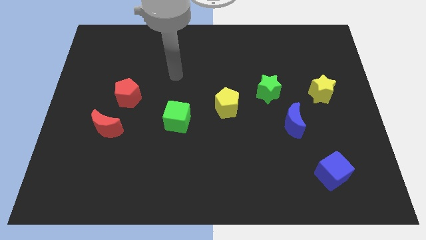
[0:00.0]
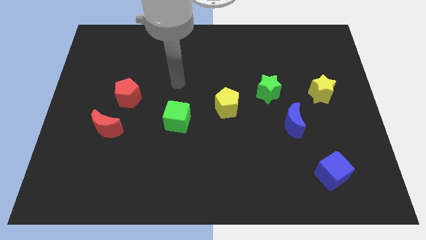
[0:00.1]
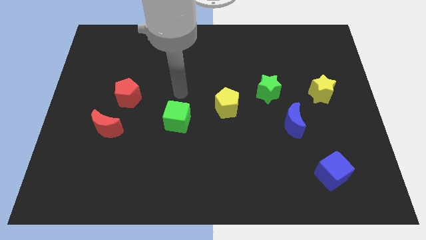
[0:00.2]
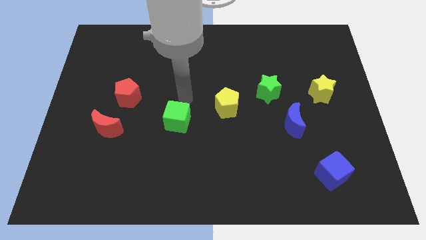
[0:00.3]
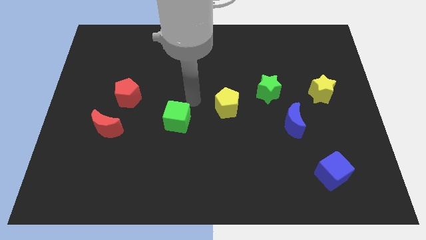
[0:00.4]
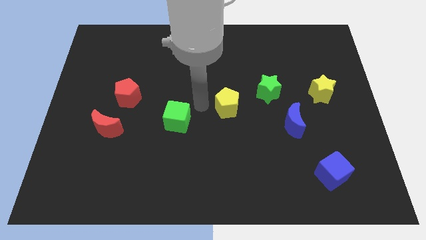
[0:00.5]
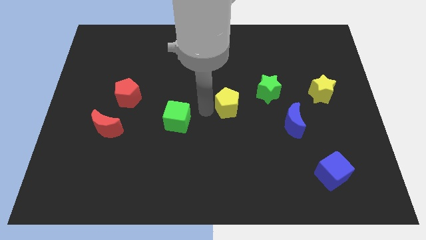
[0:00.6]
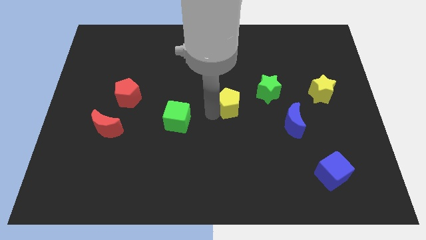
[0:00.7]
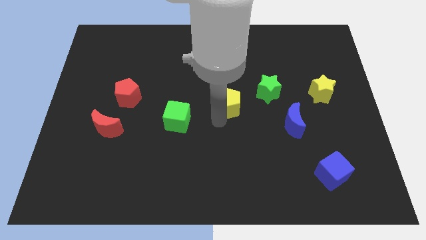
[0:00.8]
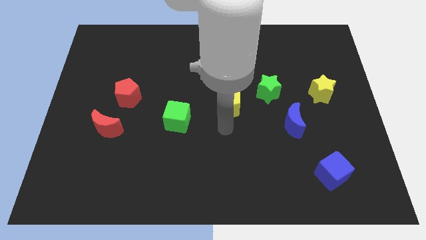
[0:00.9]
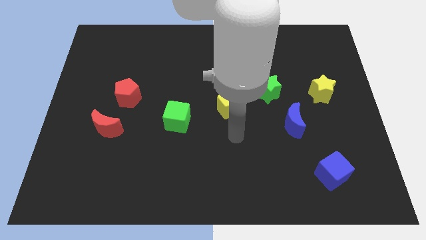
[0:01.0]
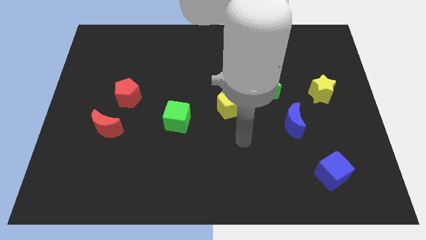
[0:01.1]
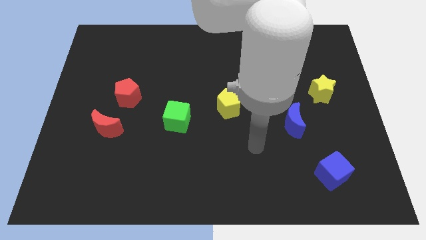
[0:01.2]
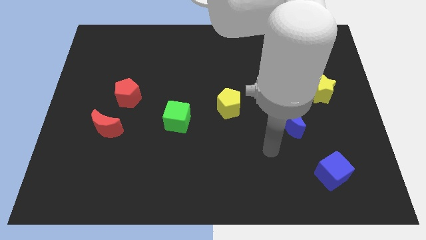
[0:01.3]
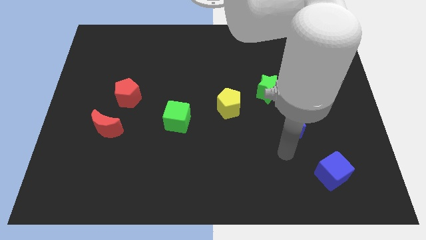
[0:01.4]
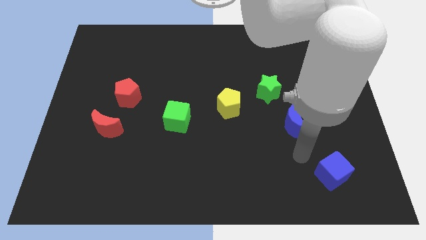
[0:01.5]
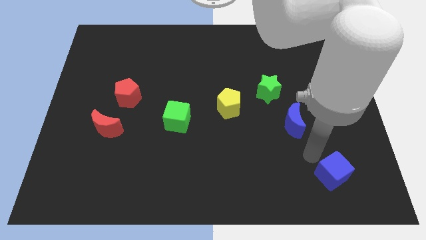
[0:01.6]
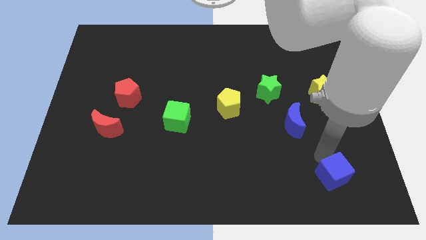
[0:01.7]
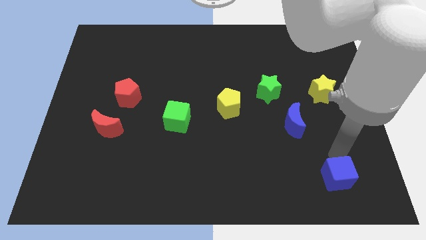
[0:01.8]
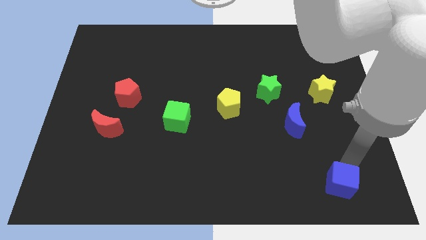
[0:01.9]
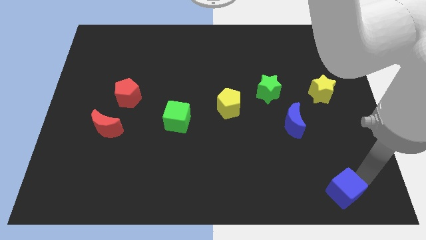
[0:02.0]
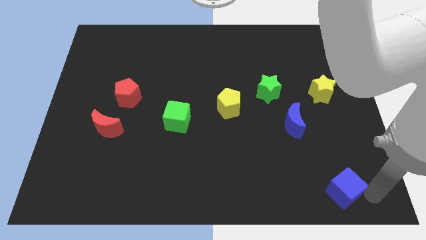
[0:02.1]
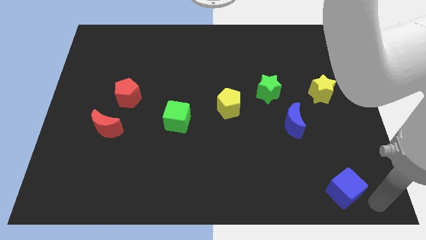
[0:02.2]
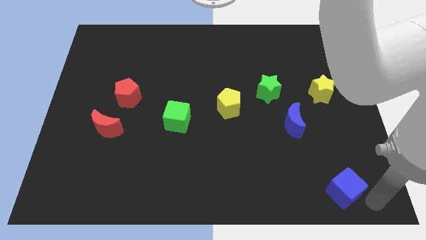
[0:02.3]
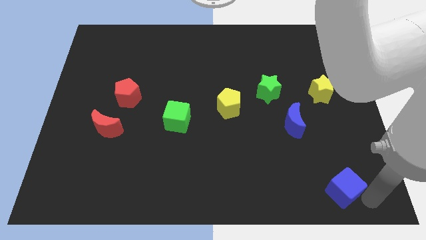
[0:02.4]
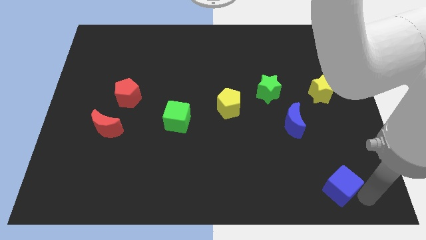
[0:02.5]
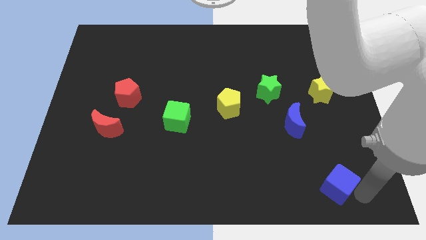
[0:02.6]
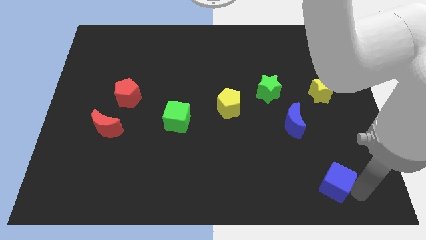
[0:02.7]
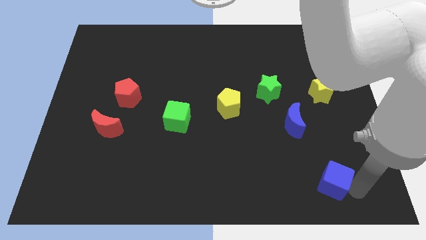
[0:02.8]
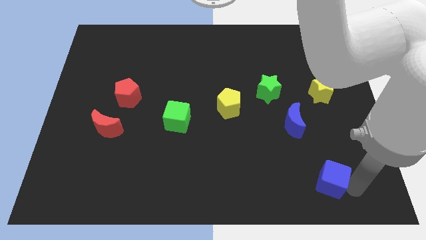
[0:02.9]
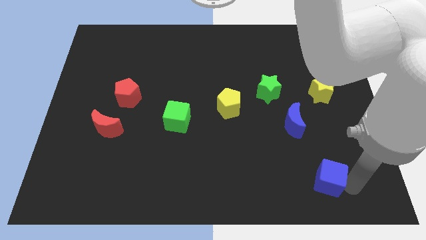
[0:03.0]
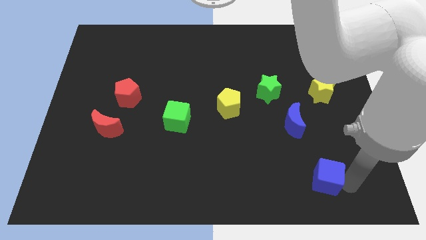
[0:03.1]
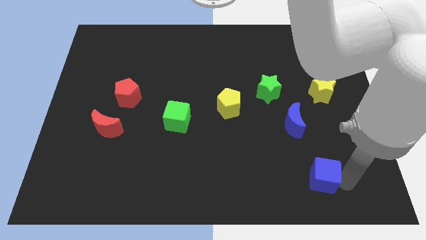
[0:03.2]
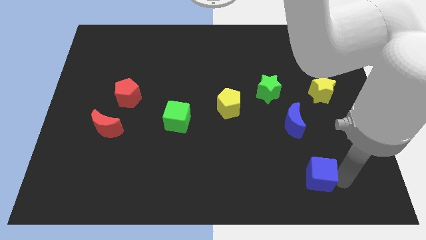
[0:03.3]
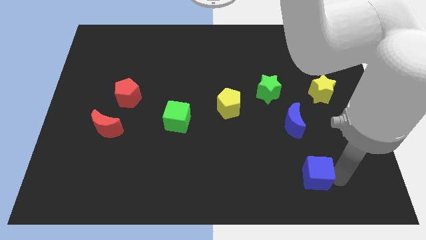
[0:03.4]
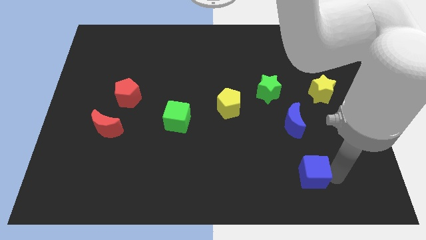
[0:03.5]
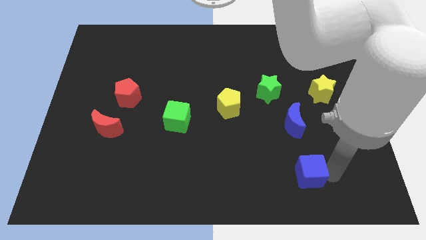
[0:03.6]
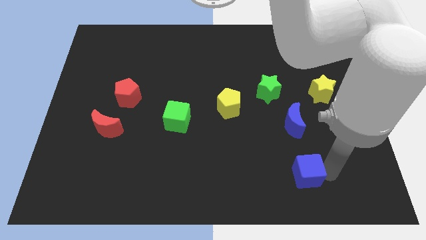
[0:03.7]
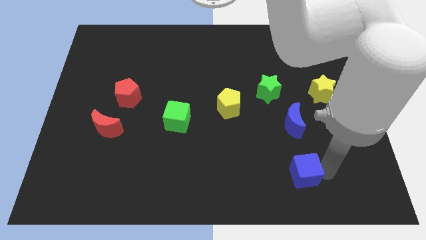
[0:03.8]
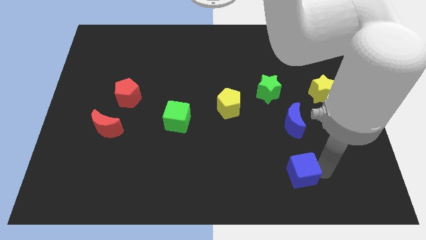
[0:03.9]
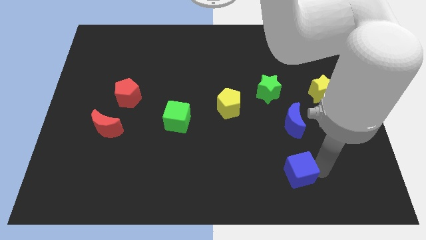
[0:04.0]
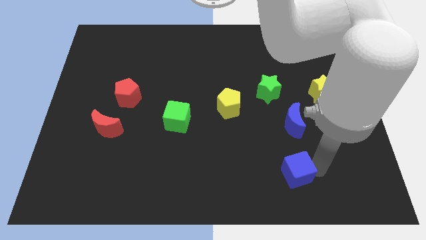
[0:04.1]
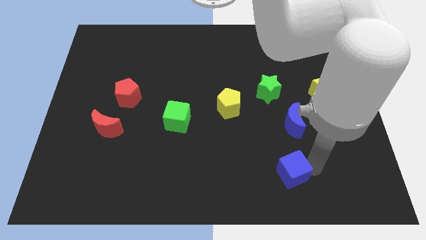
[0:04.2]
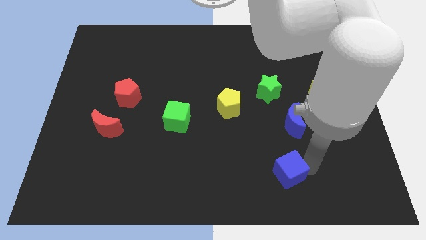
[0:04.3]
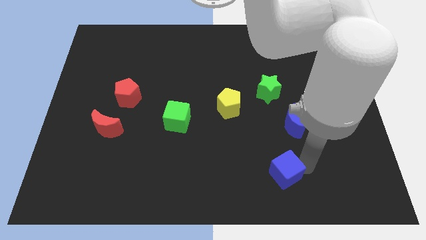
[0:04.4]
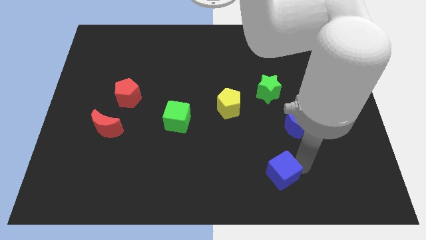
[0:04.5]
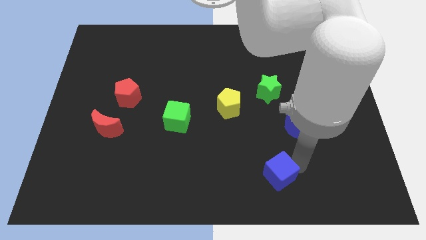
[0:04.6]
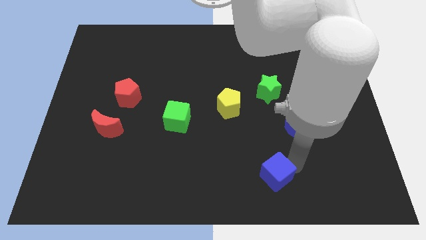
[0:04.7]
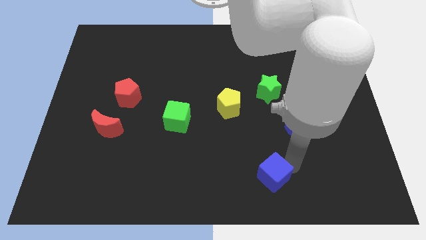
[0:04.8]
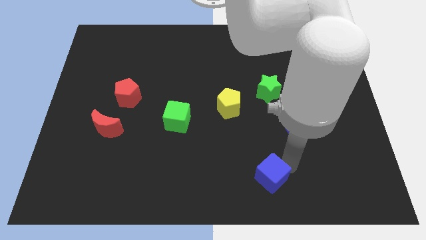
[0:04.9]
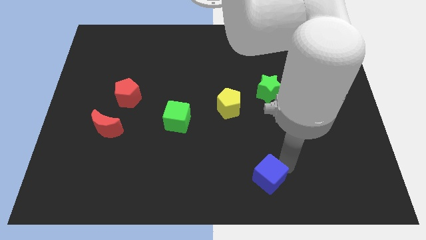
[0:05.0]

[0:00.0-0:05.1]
move the blue cube to the bottom side

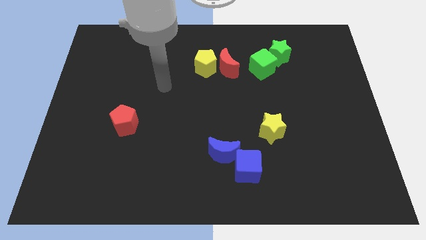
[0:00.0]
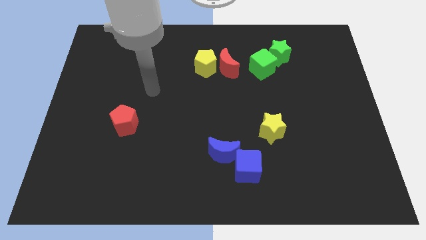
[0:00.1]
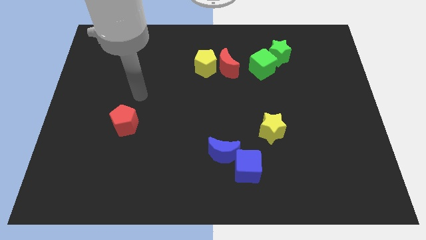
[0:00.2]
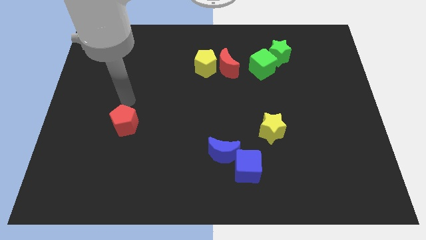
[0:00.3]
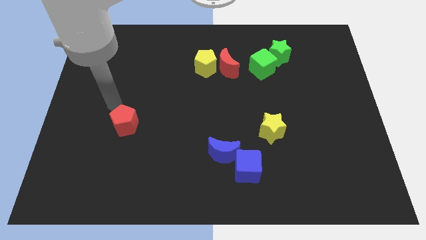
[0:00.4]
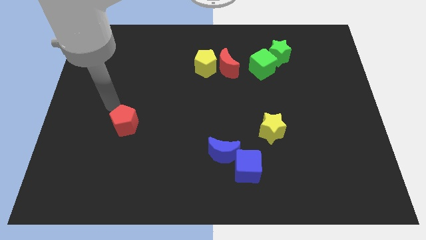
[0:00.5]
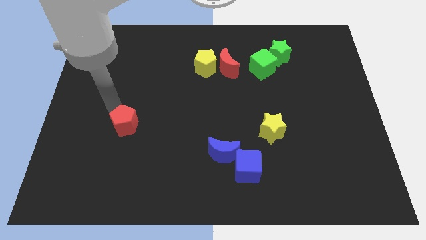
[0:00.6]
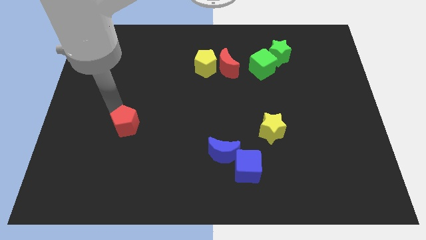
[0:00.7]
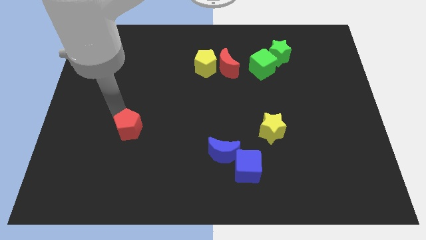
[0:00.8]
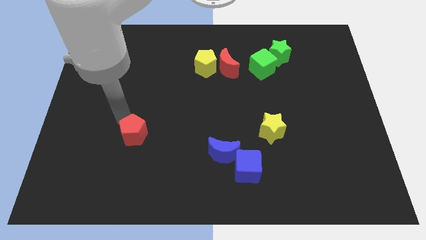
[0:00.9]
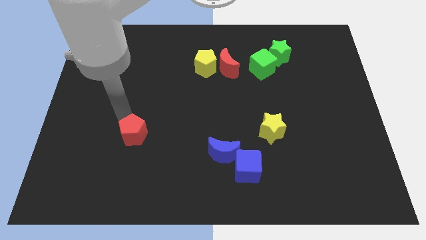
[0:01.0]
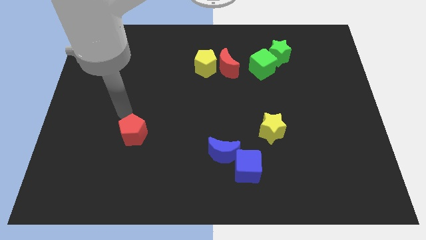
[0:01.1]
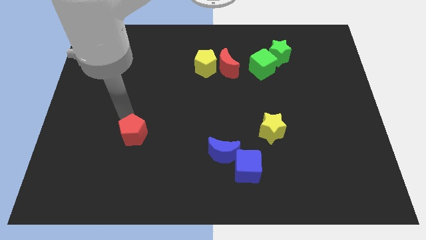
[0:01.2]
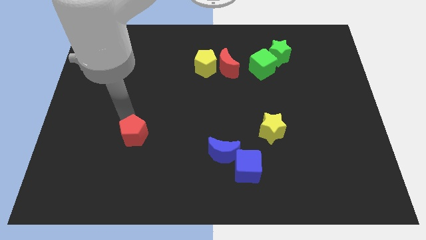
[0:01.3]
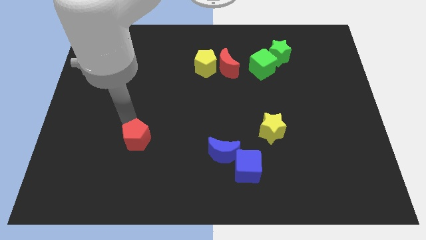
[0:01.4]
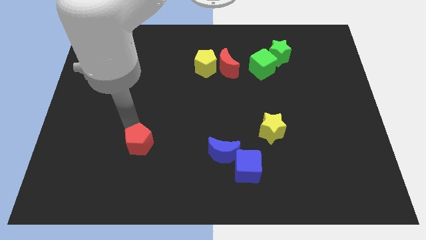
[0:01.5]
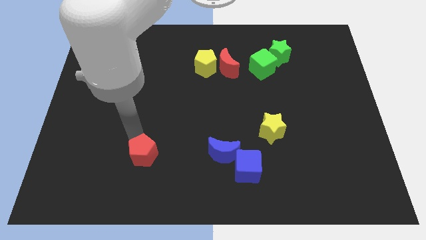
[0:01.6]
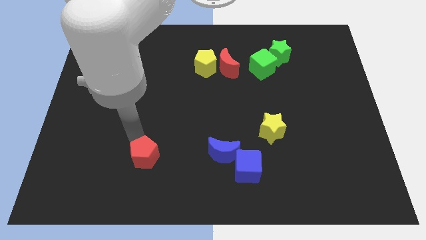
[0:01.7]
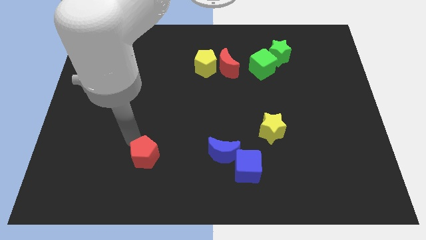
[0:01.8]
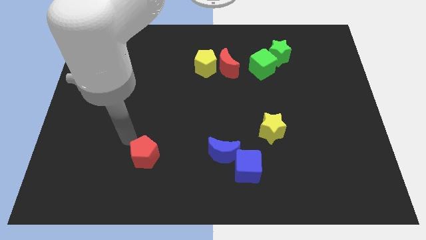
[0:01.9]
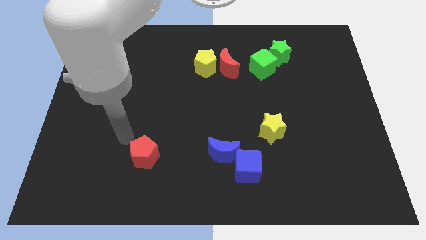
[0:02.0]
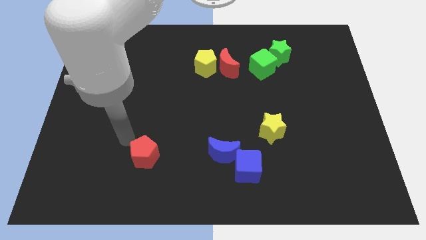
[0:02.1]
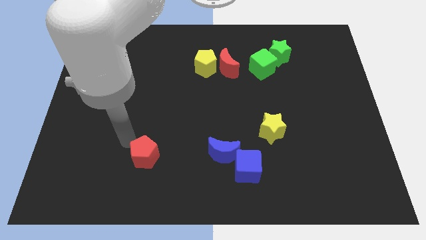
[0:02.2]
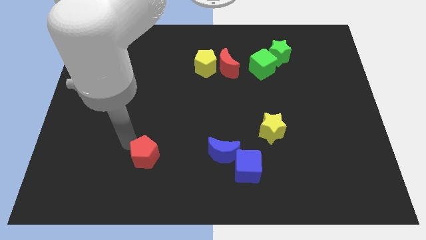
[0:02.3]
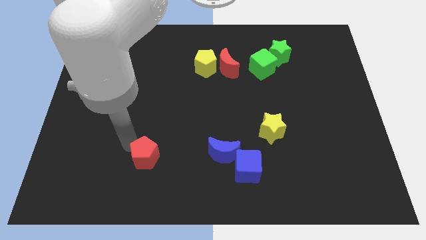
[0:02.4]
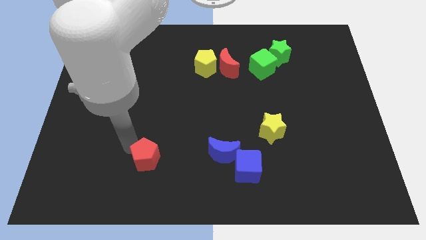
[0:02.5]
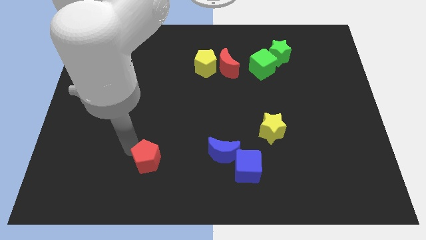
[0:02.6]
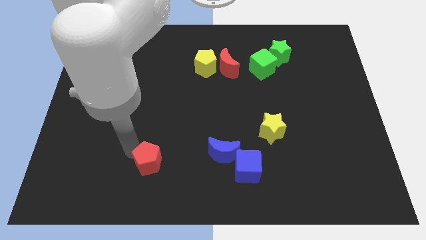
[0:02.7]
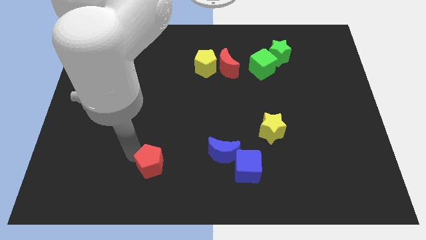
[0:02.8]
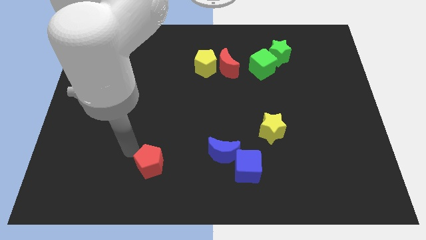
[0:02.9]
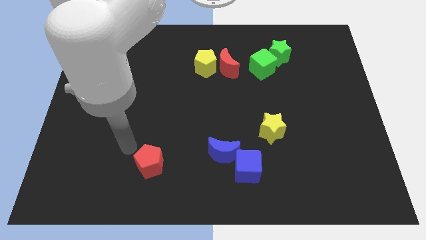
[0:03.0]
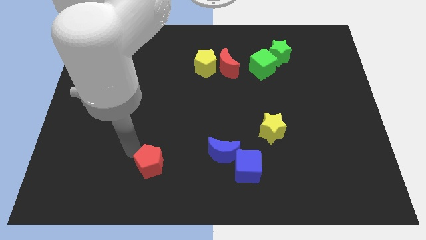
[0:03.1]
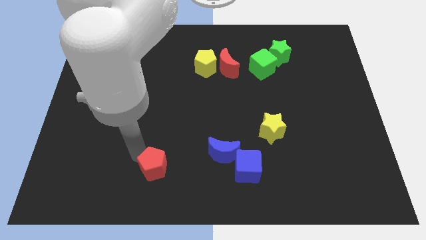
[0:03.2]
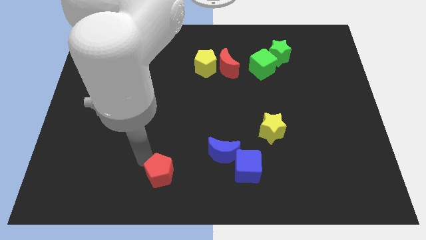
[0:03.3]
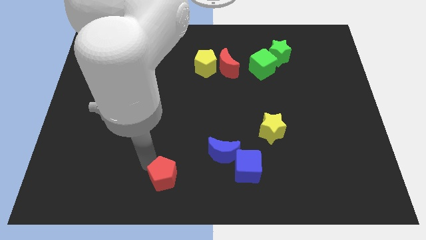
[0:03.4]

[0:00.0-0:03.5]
push the red pentagon to the bottom
